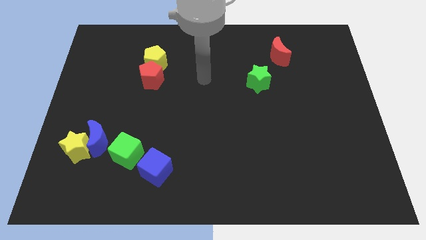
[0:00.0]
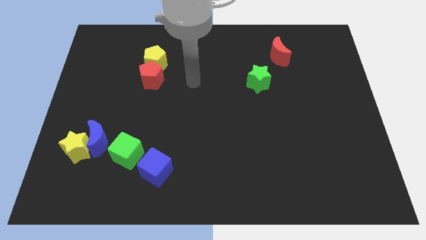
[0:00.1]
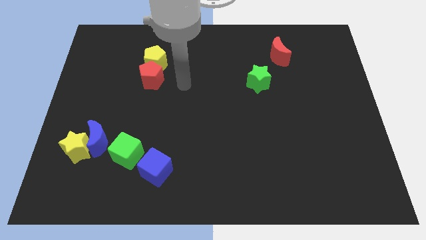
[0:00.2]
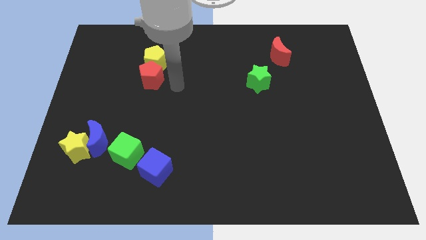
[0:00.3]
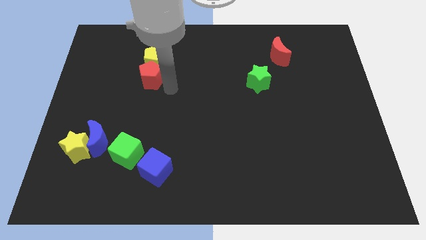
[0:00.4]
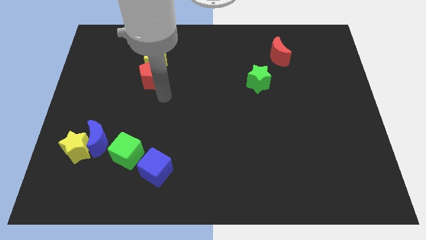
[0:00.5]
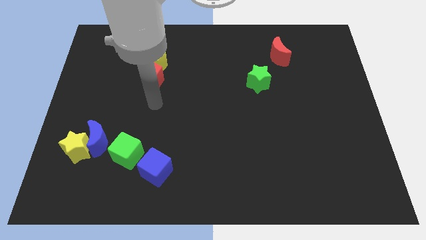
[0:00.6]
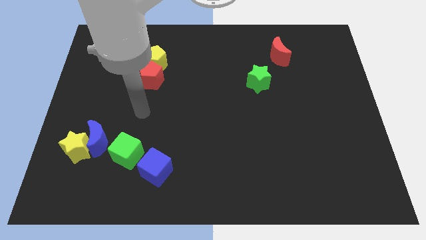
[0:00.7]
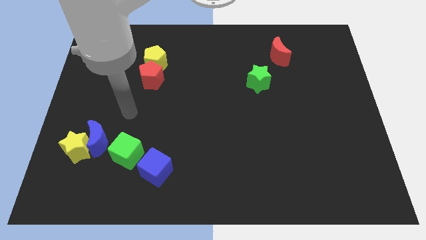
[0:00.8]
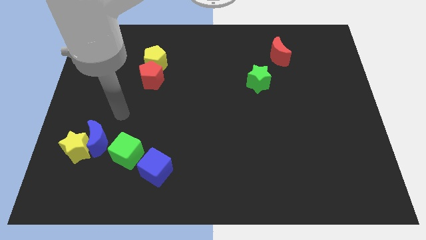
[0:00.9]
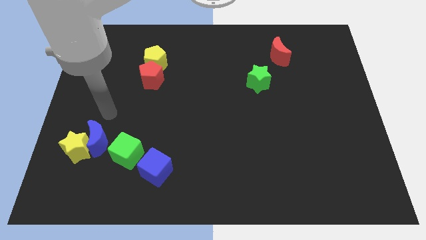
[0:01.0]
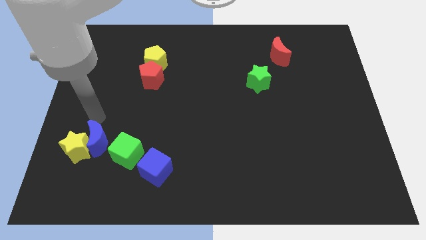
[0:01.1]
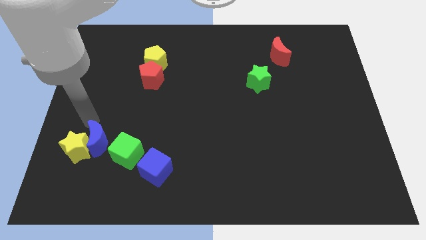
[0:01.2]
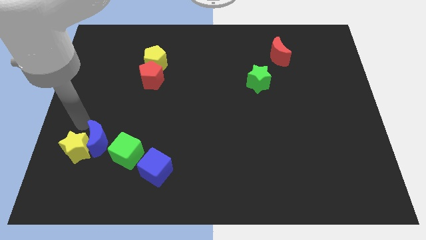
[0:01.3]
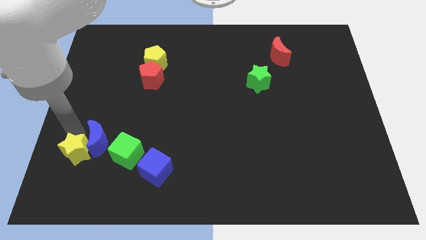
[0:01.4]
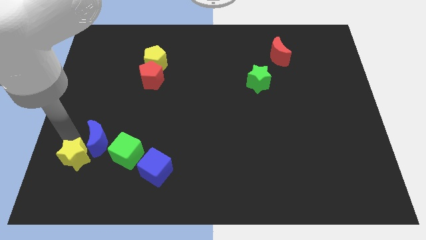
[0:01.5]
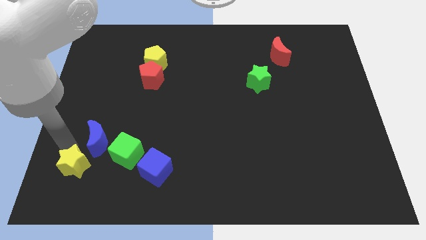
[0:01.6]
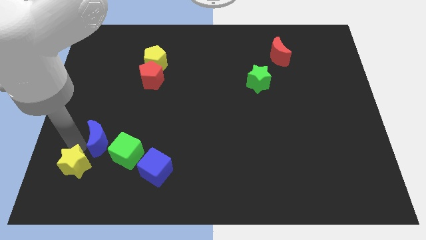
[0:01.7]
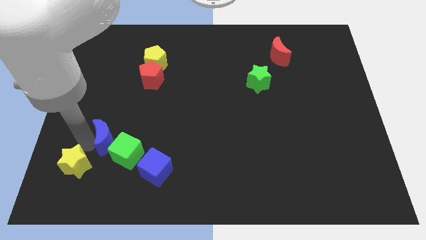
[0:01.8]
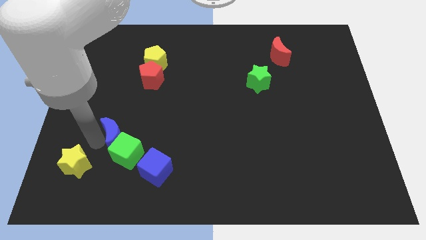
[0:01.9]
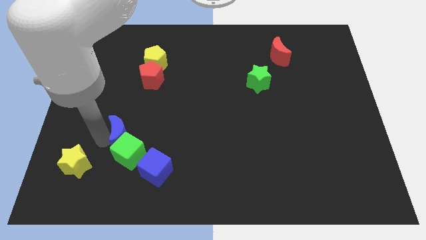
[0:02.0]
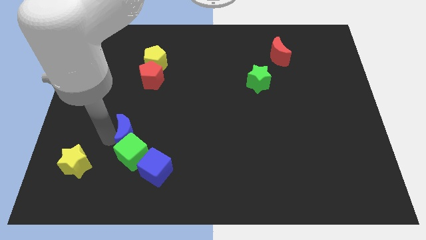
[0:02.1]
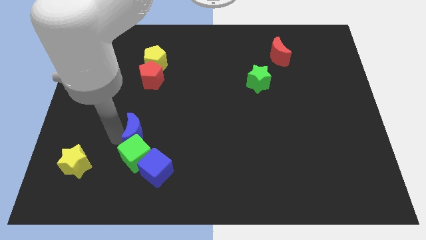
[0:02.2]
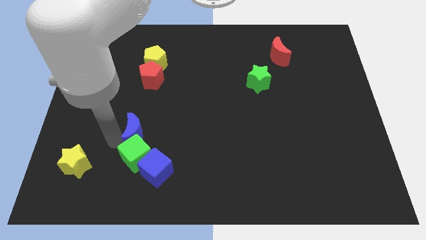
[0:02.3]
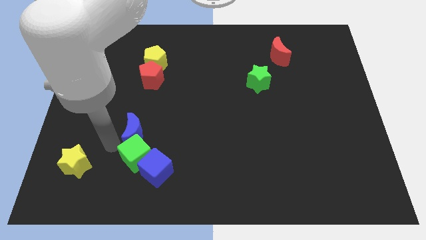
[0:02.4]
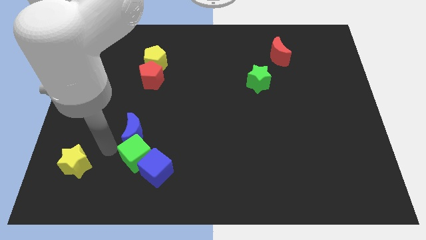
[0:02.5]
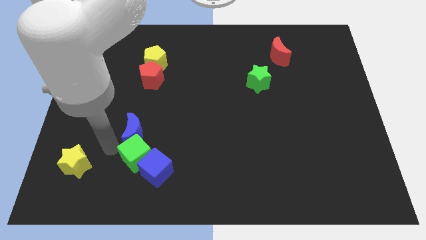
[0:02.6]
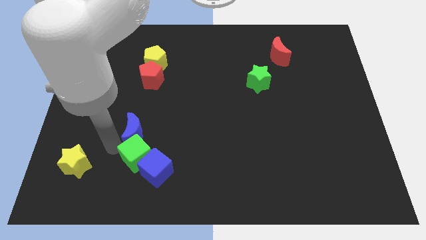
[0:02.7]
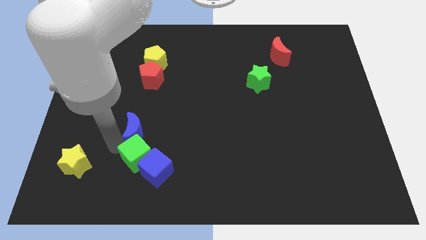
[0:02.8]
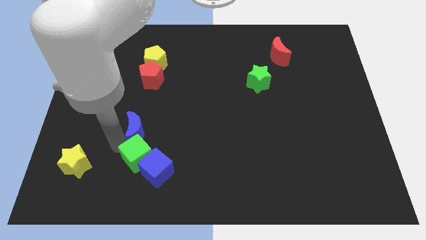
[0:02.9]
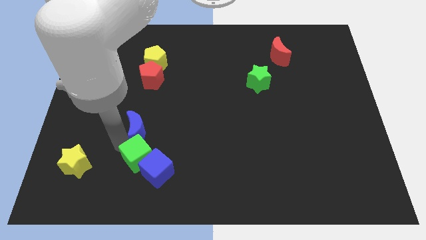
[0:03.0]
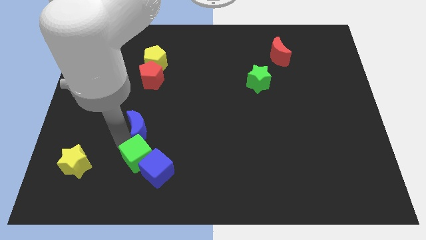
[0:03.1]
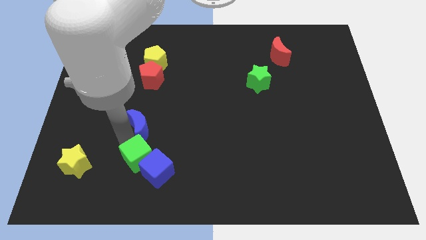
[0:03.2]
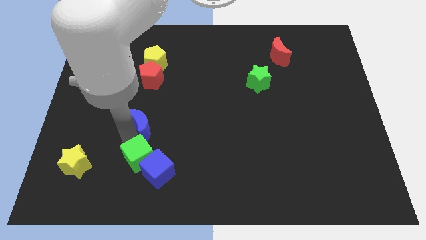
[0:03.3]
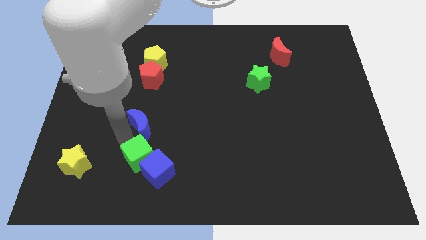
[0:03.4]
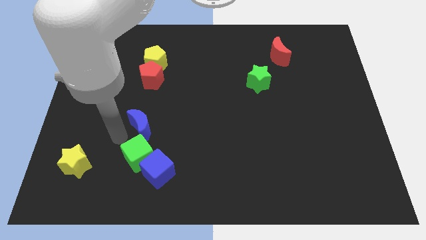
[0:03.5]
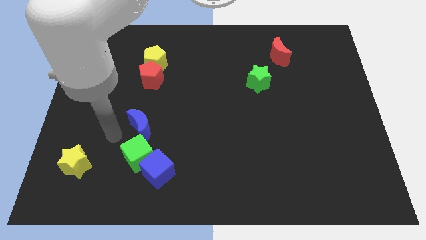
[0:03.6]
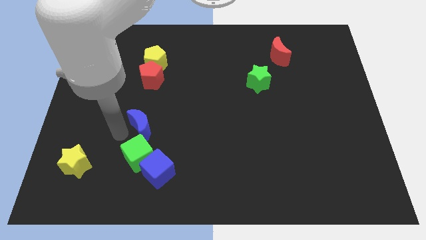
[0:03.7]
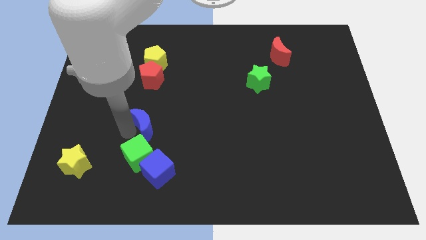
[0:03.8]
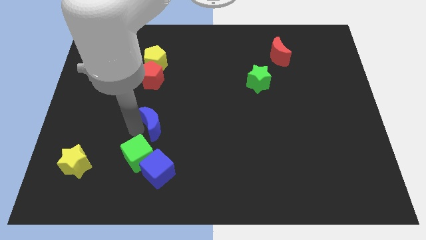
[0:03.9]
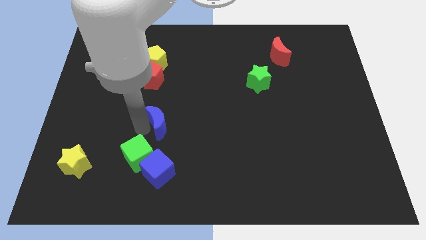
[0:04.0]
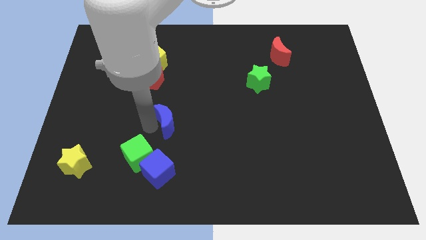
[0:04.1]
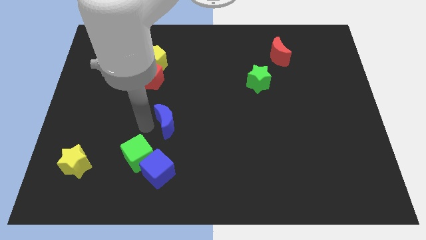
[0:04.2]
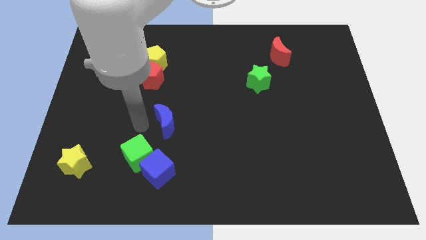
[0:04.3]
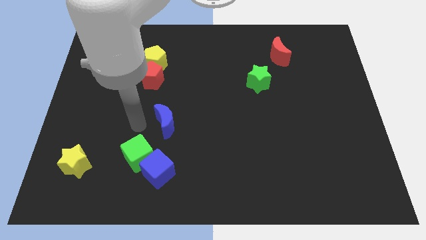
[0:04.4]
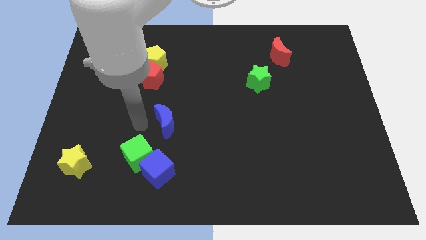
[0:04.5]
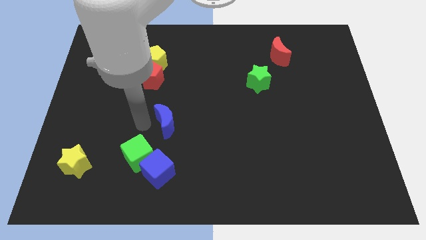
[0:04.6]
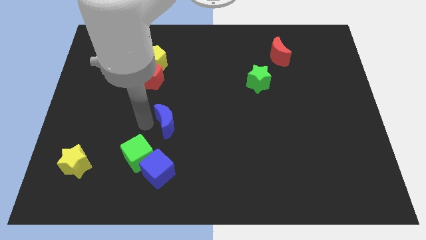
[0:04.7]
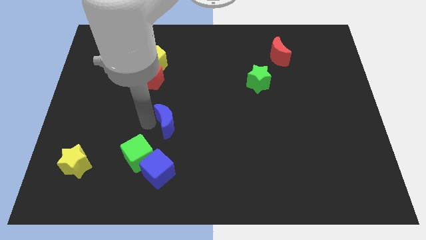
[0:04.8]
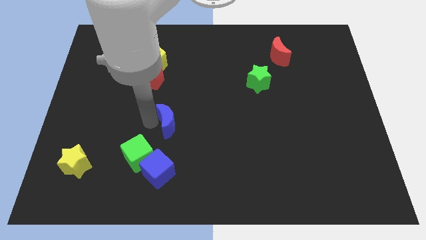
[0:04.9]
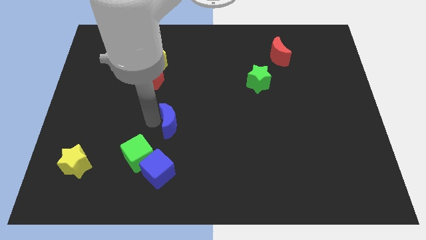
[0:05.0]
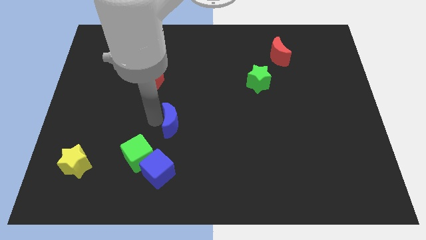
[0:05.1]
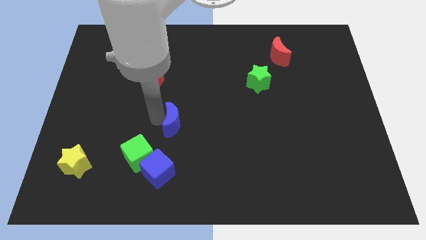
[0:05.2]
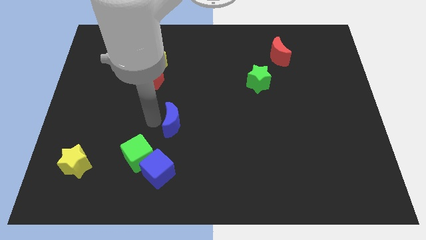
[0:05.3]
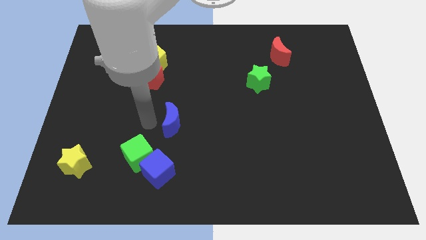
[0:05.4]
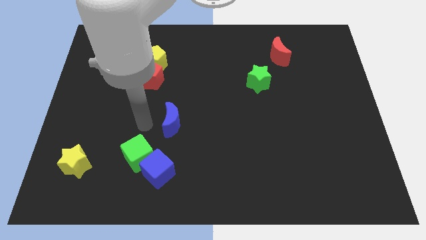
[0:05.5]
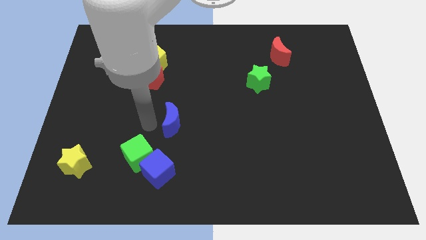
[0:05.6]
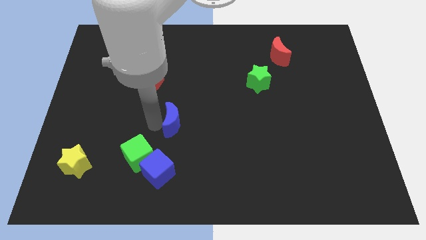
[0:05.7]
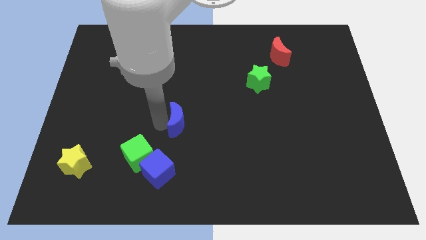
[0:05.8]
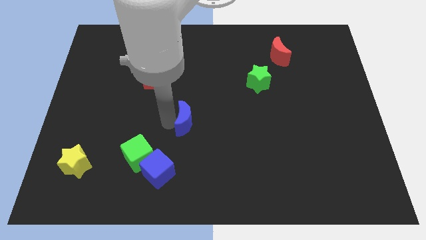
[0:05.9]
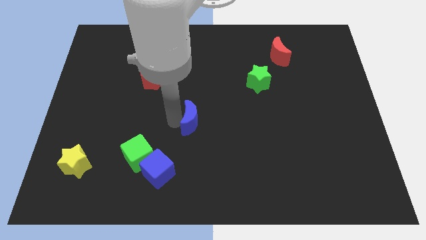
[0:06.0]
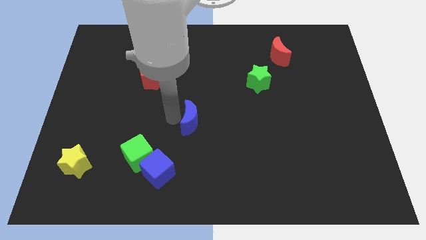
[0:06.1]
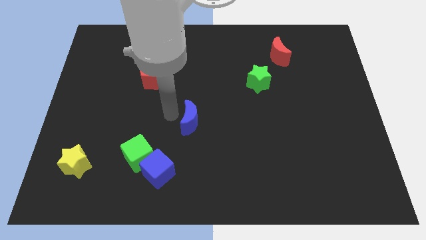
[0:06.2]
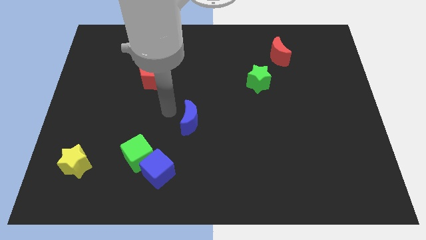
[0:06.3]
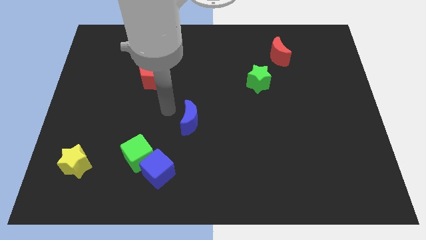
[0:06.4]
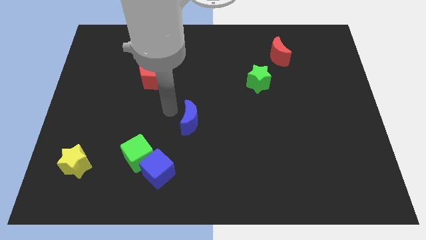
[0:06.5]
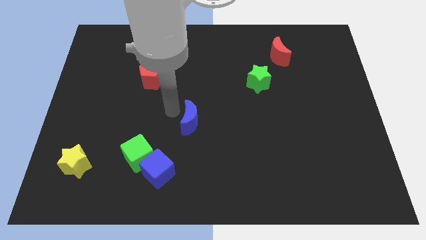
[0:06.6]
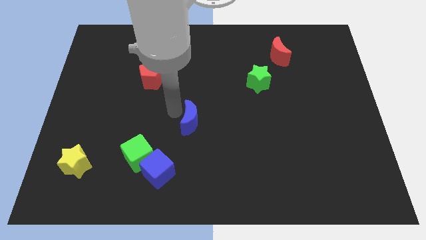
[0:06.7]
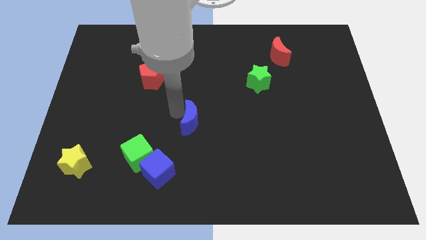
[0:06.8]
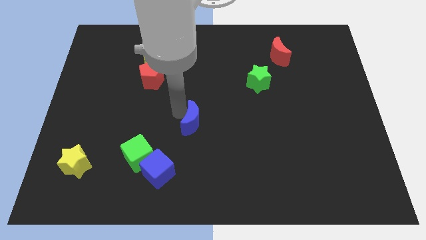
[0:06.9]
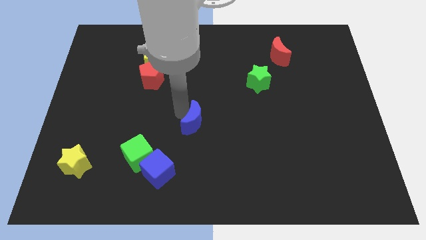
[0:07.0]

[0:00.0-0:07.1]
push the blue moon right

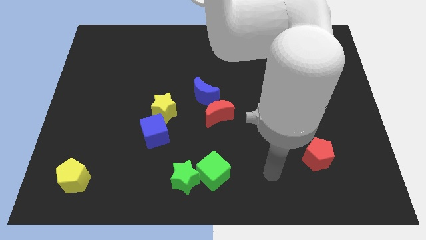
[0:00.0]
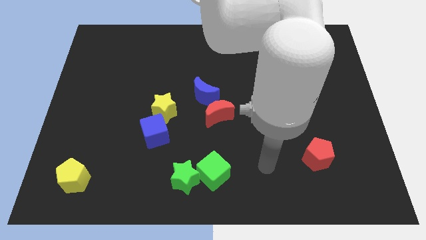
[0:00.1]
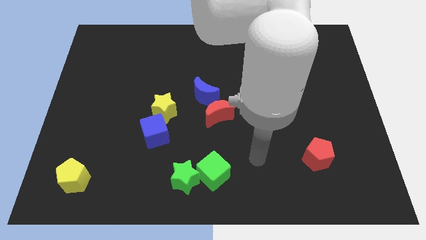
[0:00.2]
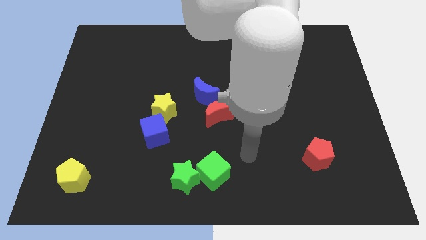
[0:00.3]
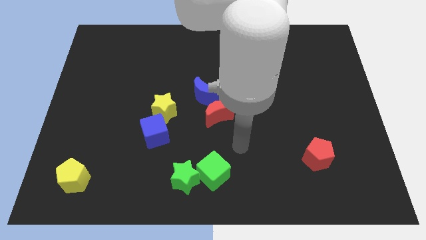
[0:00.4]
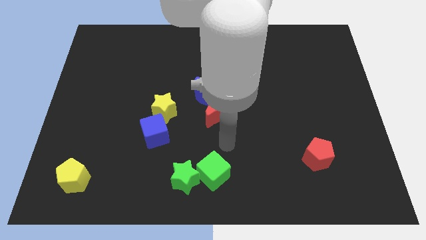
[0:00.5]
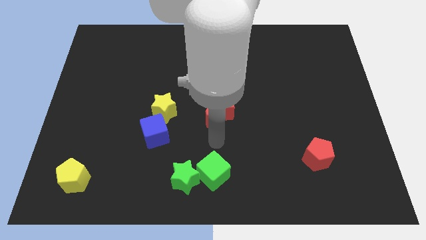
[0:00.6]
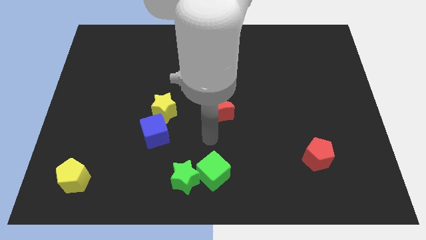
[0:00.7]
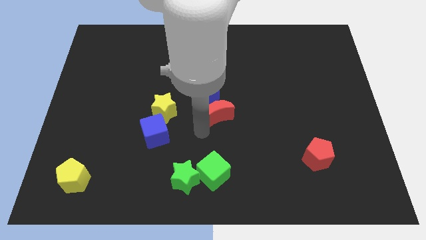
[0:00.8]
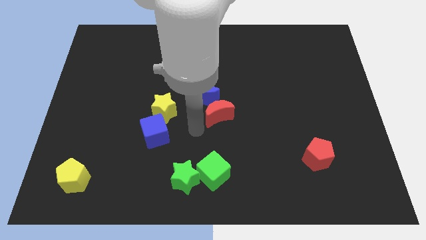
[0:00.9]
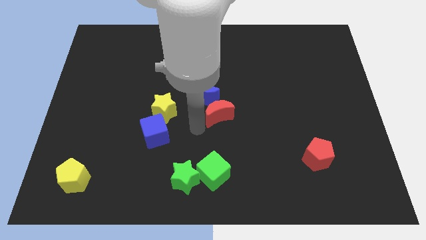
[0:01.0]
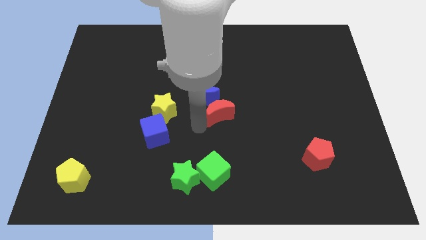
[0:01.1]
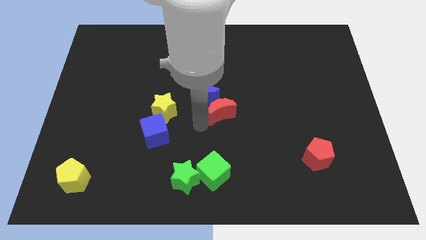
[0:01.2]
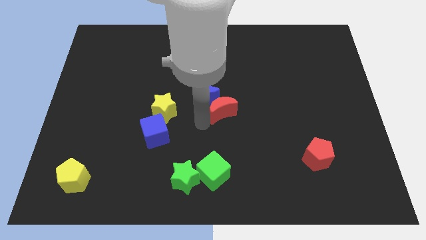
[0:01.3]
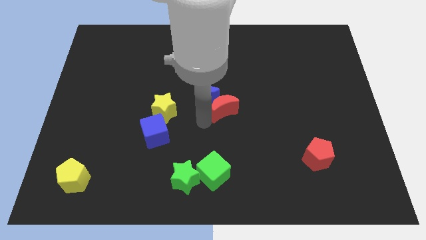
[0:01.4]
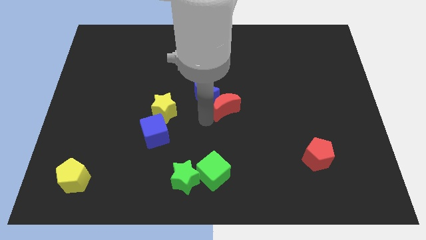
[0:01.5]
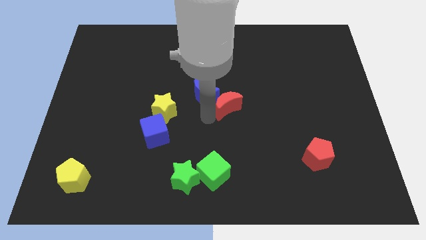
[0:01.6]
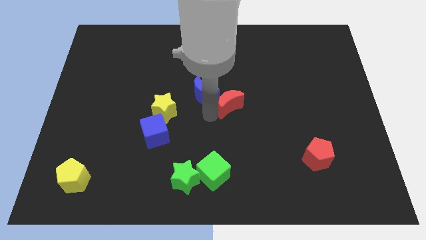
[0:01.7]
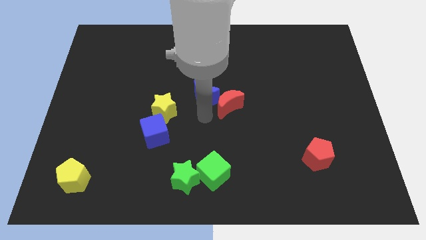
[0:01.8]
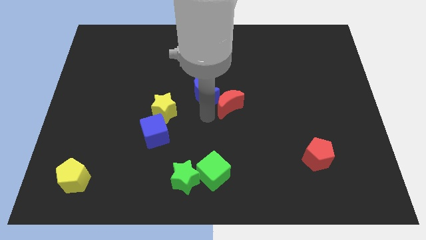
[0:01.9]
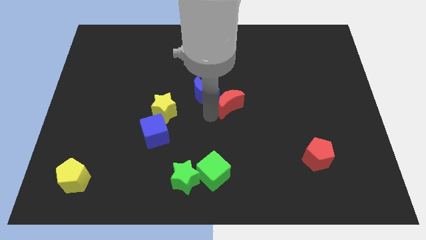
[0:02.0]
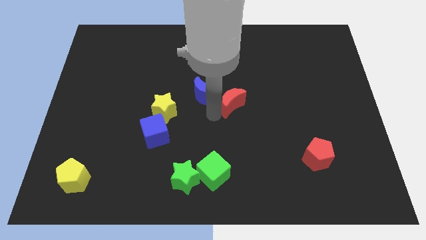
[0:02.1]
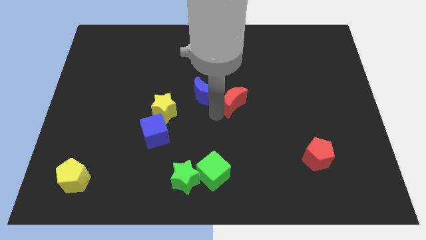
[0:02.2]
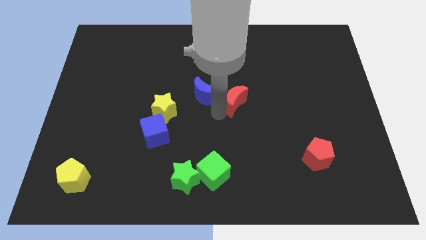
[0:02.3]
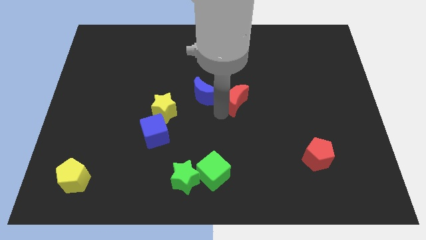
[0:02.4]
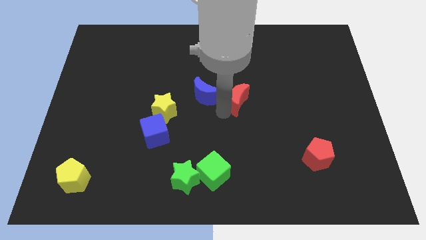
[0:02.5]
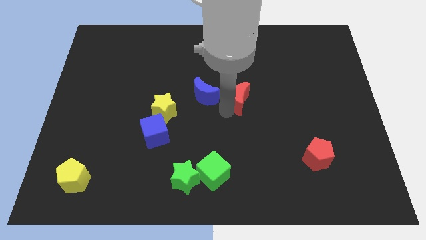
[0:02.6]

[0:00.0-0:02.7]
push the red moon slightly upwards and to the right
